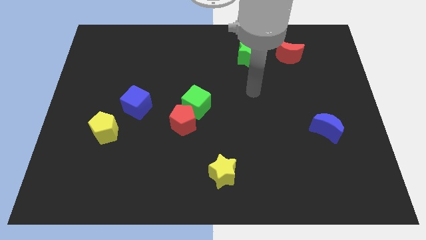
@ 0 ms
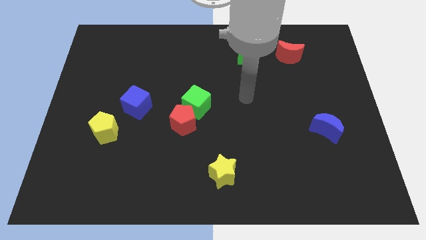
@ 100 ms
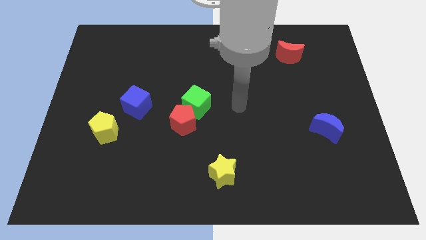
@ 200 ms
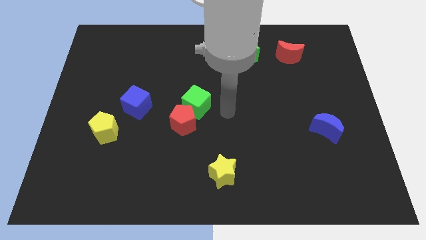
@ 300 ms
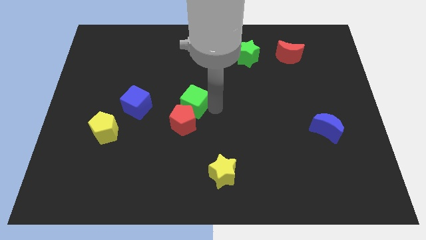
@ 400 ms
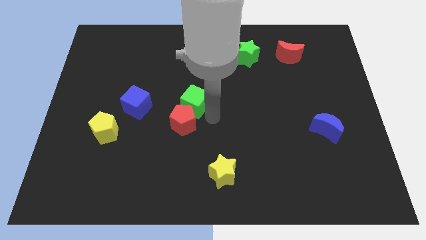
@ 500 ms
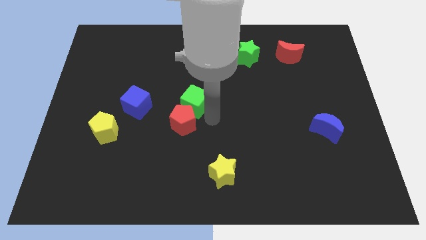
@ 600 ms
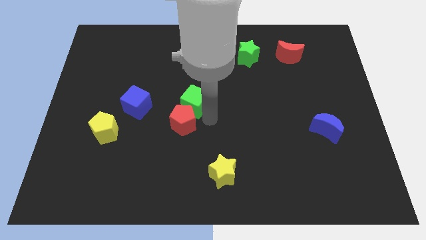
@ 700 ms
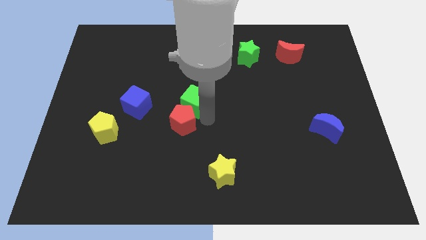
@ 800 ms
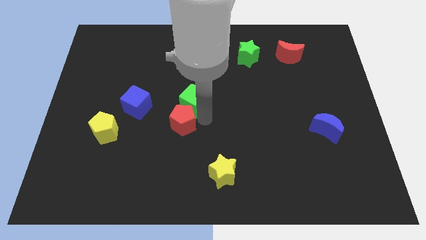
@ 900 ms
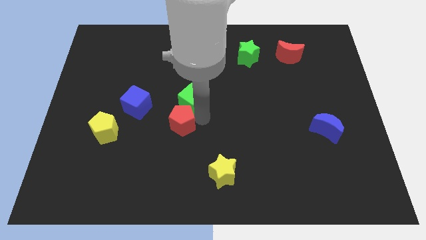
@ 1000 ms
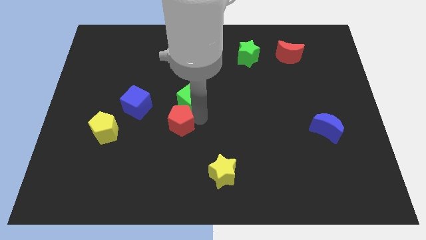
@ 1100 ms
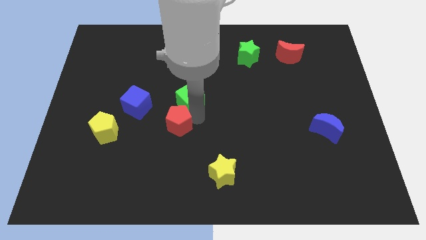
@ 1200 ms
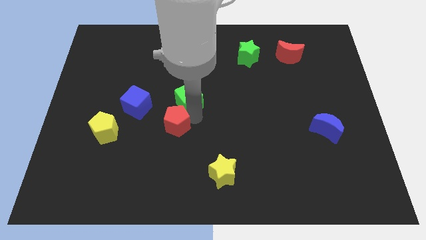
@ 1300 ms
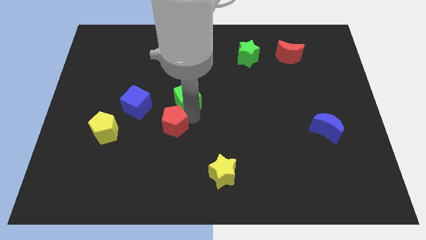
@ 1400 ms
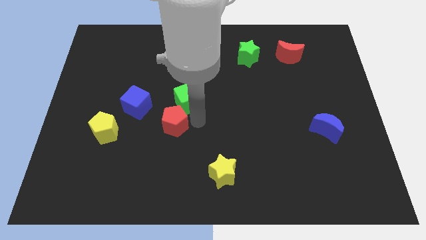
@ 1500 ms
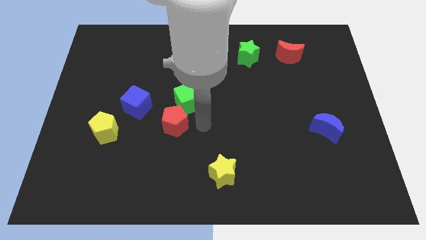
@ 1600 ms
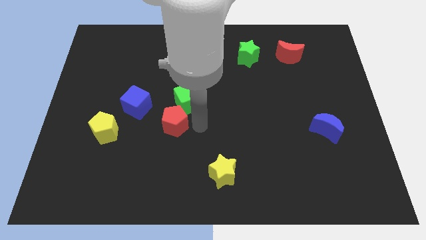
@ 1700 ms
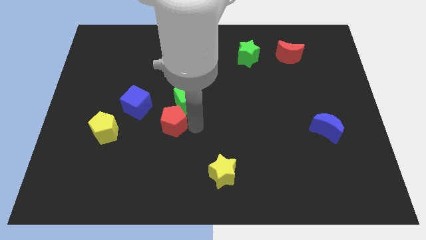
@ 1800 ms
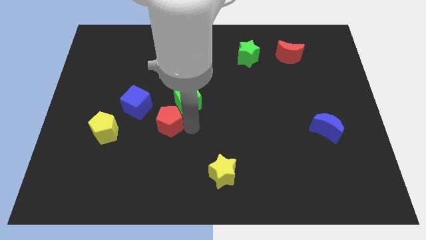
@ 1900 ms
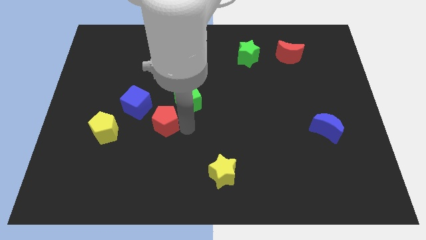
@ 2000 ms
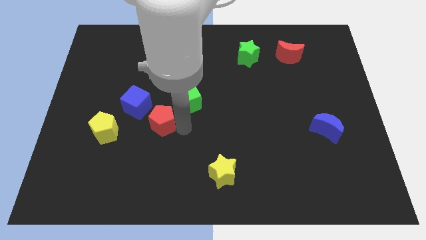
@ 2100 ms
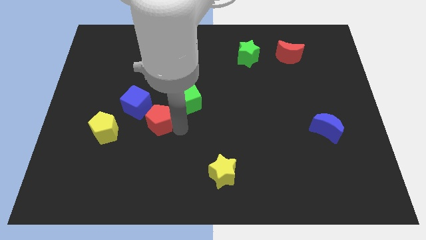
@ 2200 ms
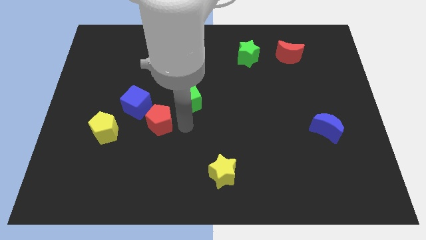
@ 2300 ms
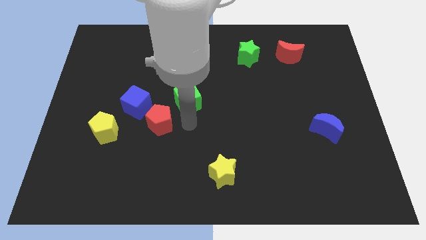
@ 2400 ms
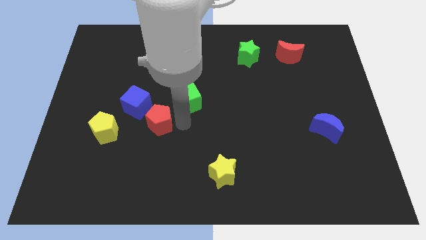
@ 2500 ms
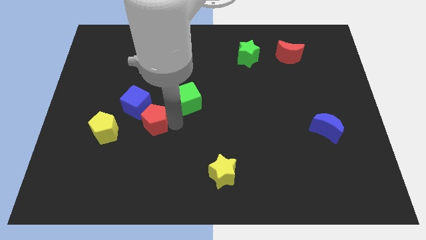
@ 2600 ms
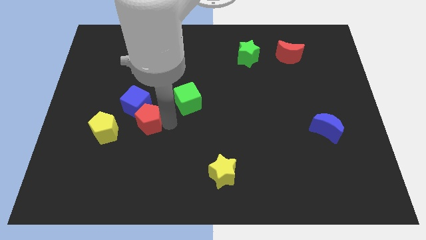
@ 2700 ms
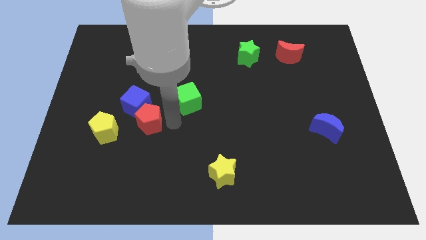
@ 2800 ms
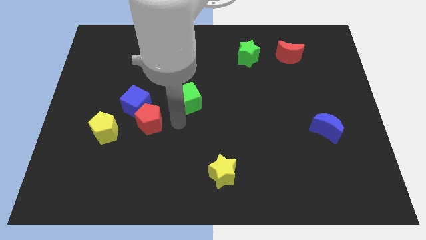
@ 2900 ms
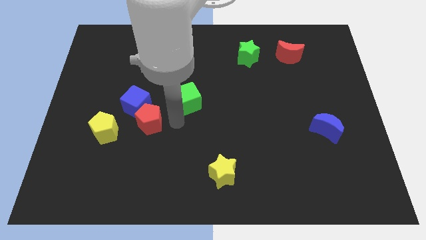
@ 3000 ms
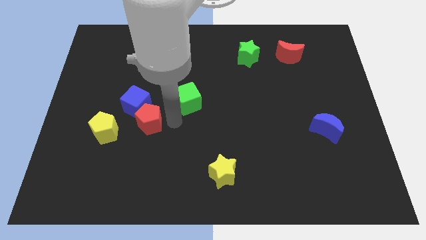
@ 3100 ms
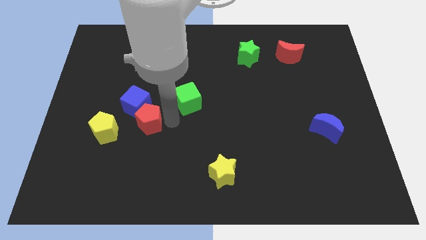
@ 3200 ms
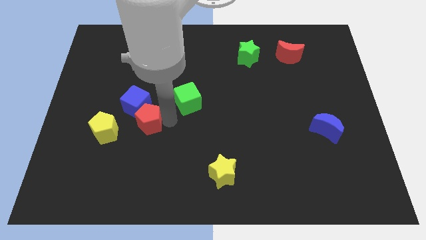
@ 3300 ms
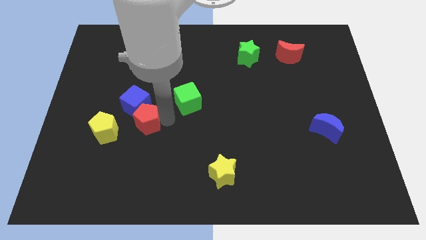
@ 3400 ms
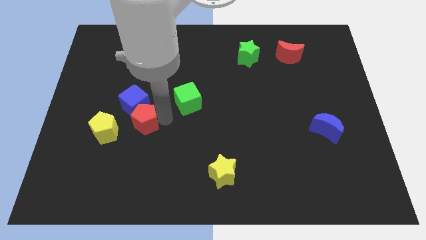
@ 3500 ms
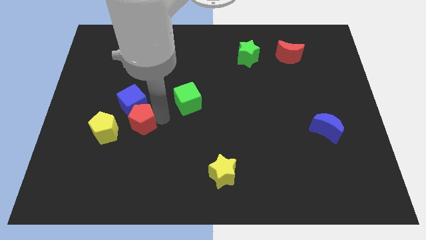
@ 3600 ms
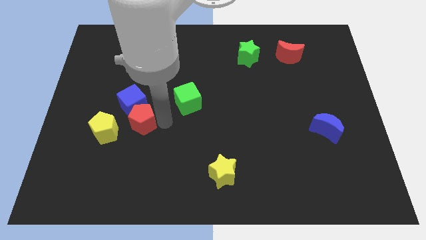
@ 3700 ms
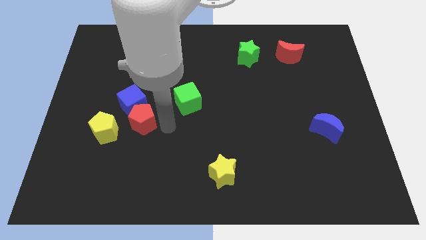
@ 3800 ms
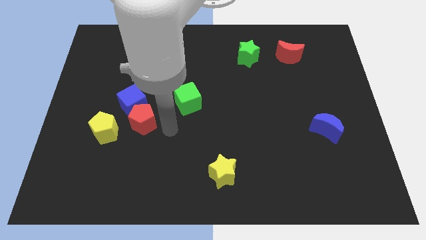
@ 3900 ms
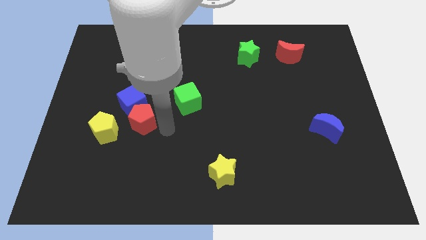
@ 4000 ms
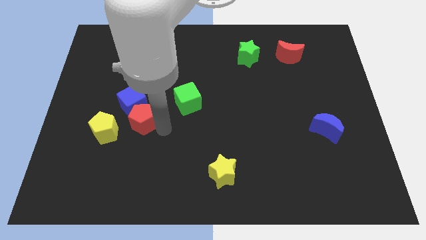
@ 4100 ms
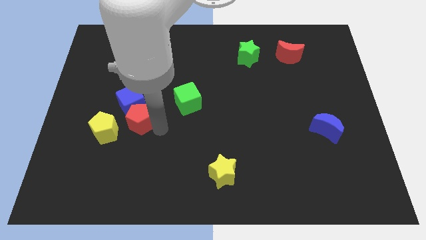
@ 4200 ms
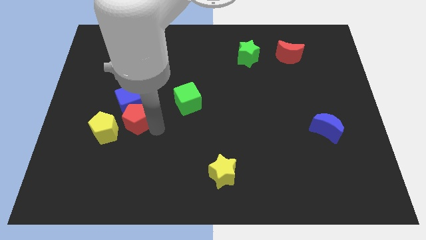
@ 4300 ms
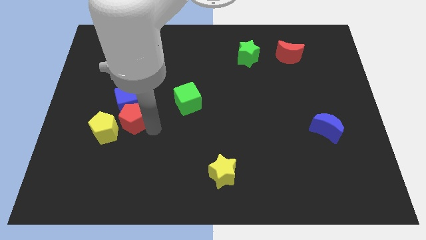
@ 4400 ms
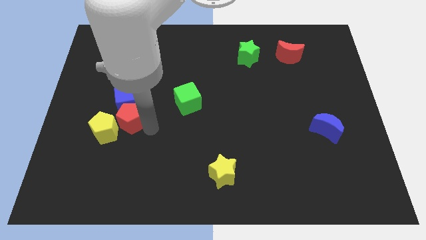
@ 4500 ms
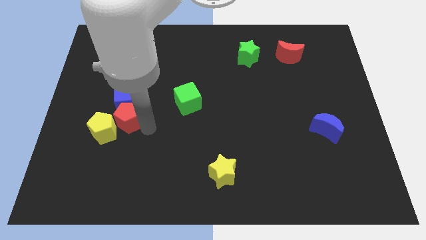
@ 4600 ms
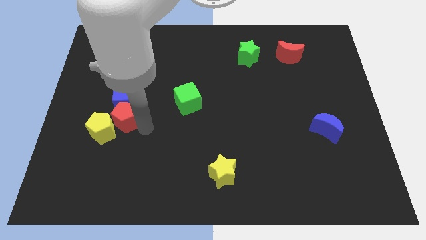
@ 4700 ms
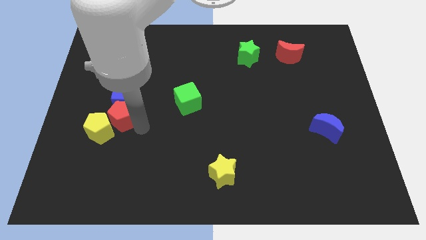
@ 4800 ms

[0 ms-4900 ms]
move the red pentagon to the top of the yellow pentagon

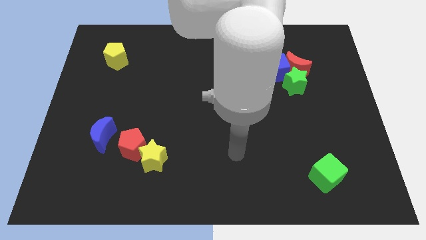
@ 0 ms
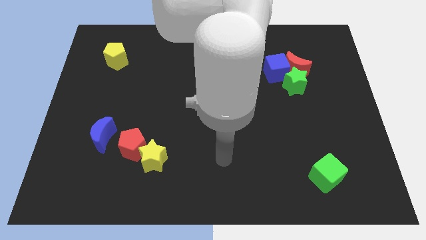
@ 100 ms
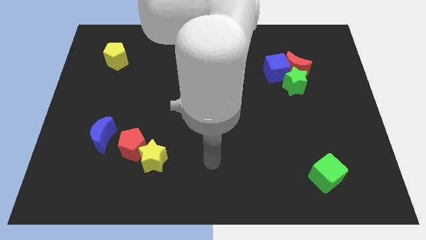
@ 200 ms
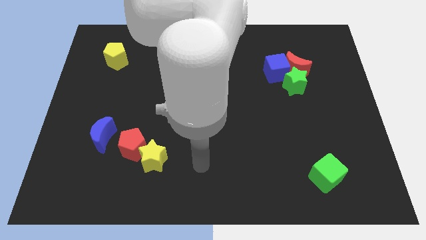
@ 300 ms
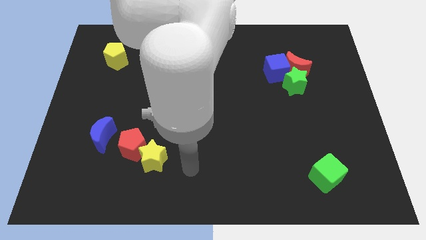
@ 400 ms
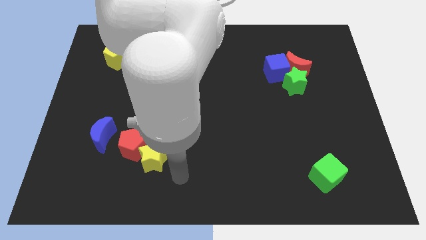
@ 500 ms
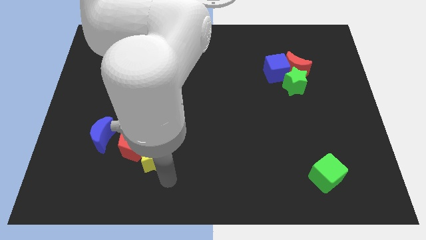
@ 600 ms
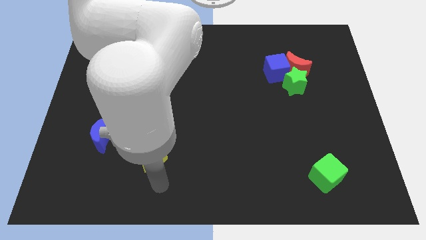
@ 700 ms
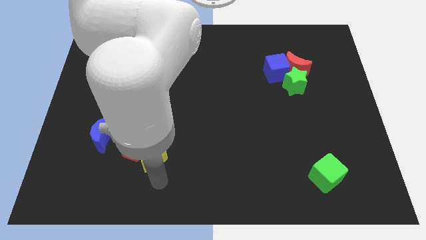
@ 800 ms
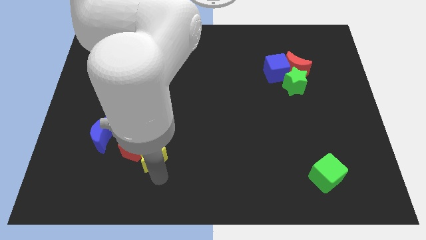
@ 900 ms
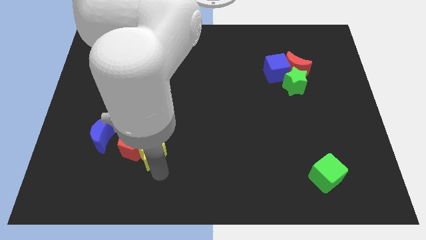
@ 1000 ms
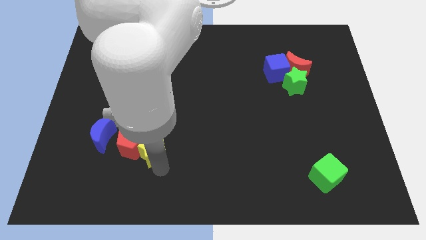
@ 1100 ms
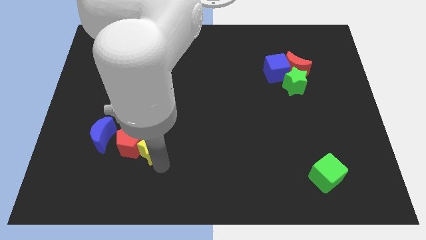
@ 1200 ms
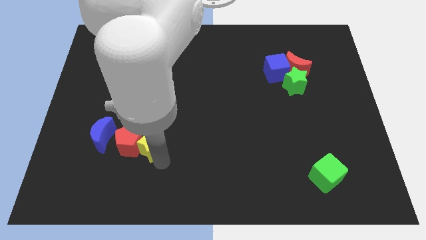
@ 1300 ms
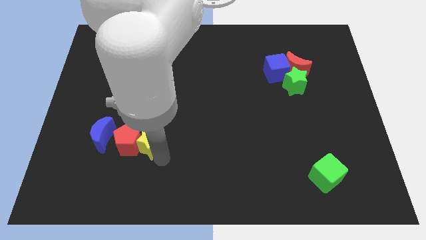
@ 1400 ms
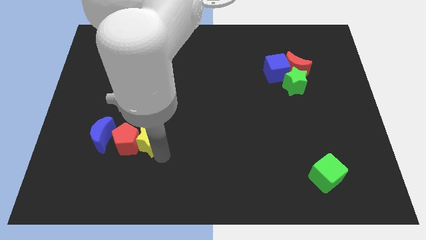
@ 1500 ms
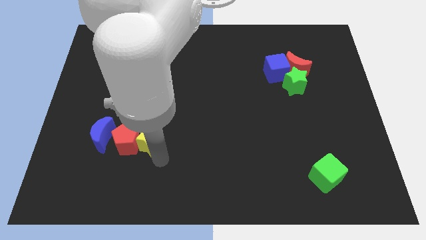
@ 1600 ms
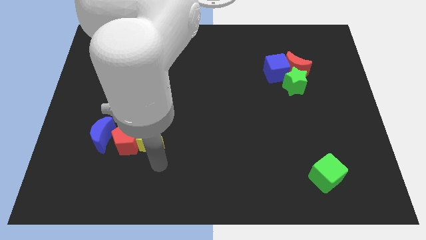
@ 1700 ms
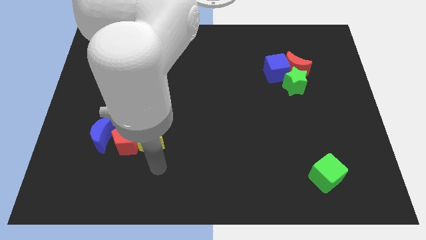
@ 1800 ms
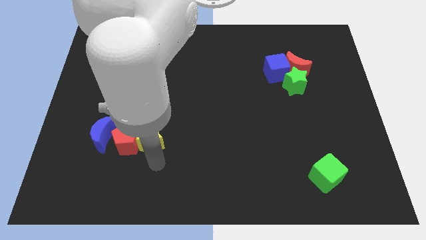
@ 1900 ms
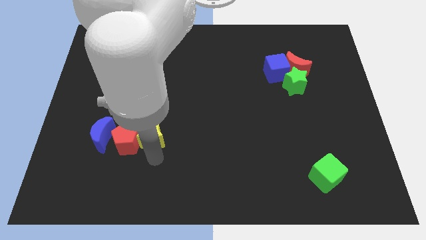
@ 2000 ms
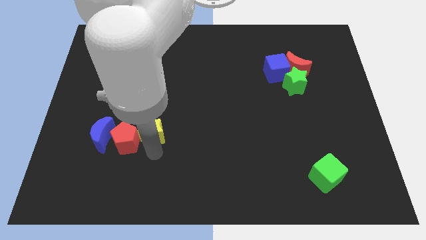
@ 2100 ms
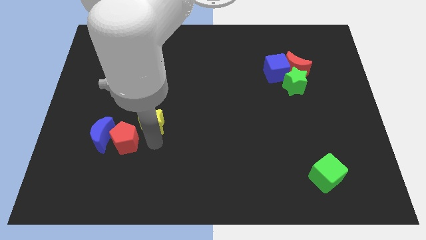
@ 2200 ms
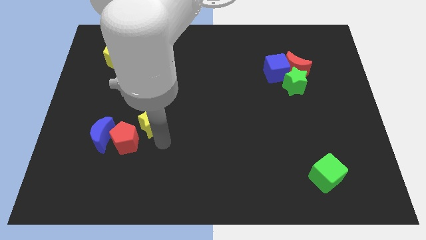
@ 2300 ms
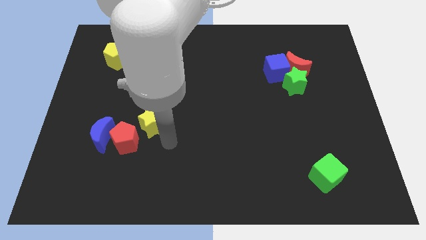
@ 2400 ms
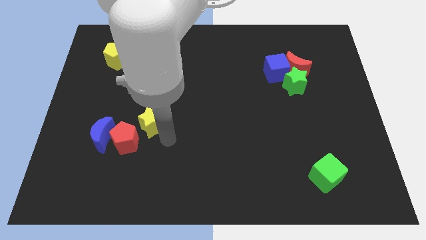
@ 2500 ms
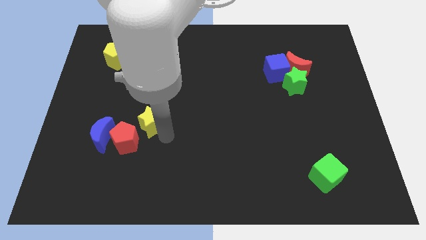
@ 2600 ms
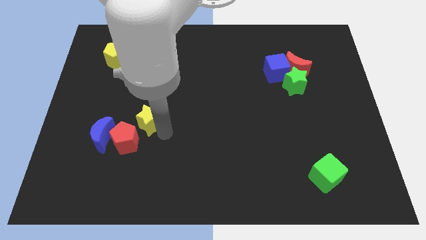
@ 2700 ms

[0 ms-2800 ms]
push the yellow star above the red pentagon

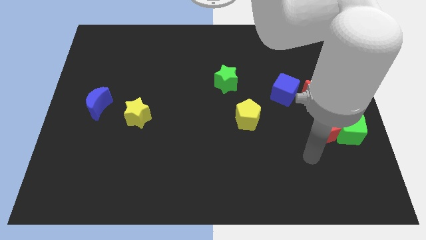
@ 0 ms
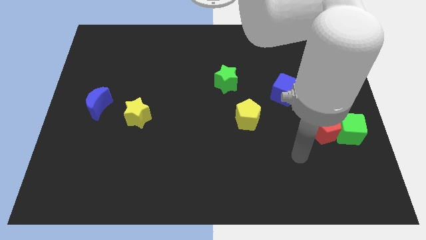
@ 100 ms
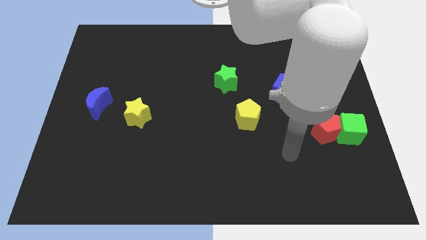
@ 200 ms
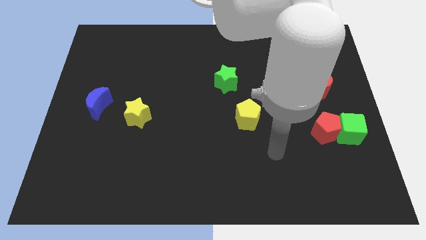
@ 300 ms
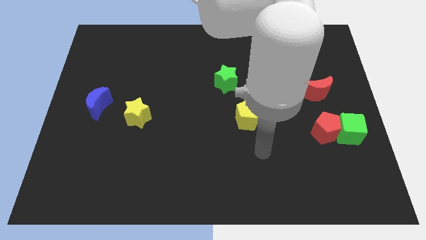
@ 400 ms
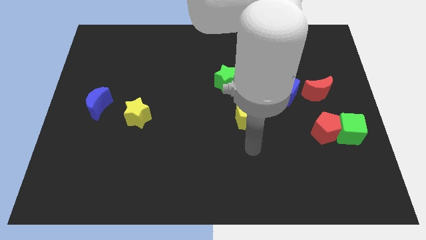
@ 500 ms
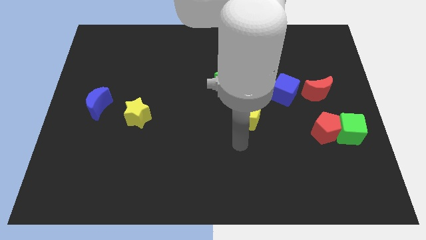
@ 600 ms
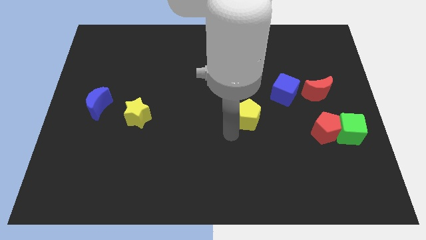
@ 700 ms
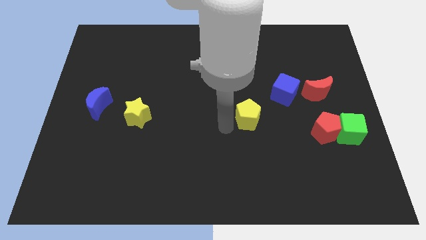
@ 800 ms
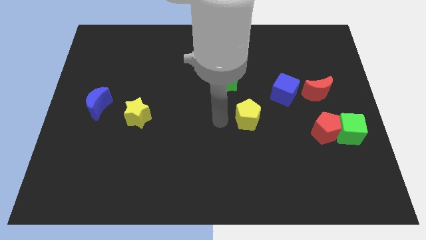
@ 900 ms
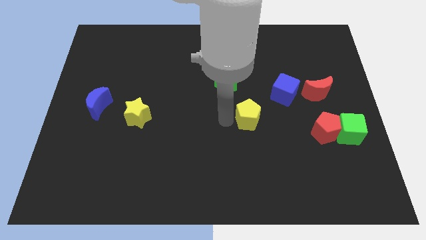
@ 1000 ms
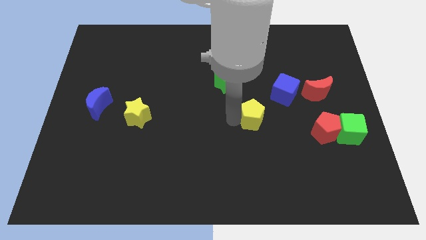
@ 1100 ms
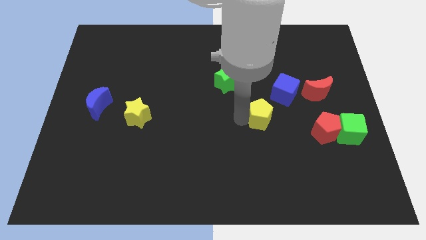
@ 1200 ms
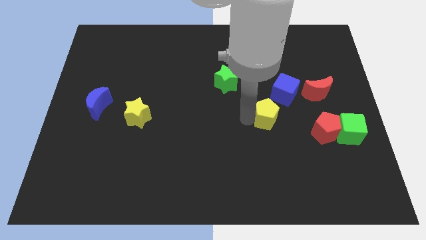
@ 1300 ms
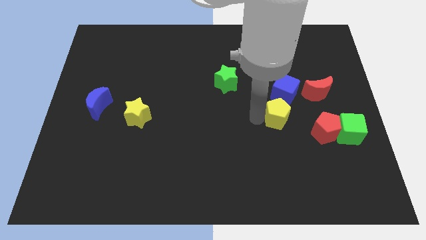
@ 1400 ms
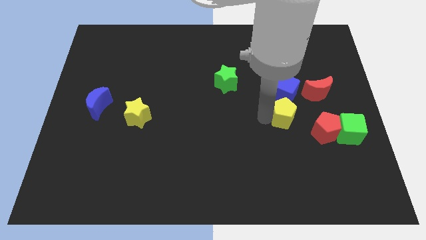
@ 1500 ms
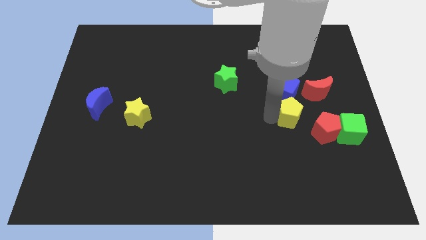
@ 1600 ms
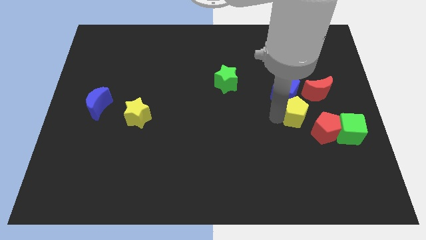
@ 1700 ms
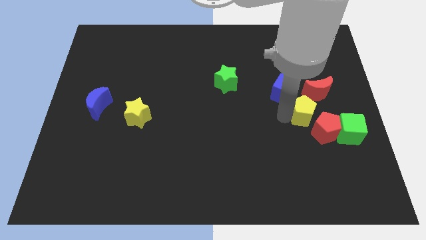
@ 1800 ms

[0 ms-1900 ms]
push the yellow pentagon to the top left of the green cube
